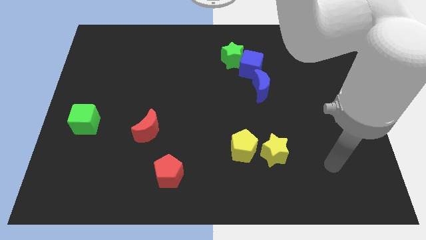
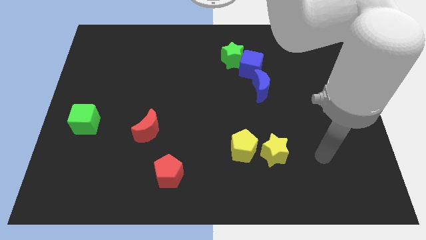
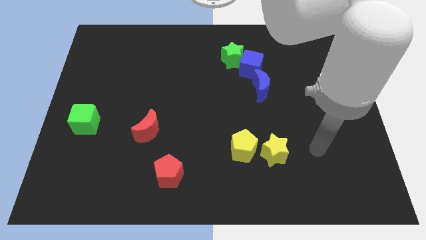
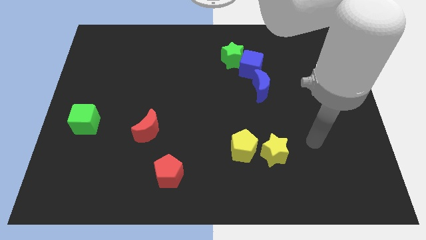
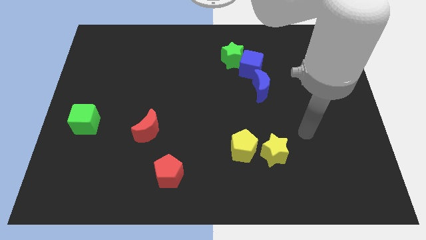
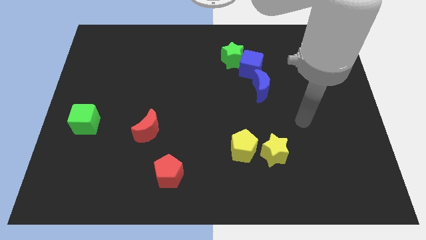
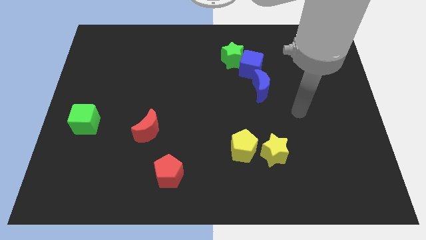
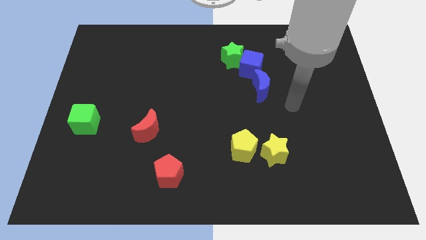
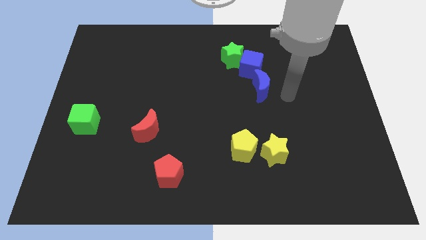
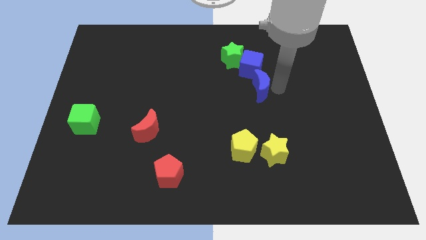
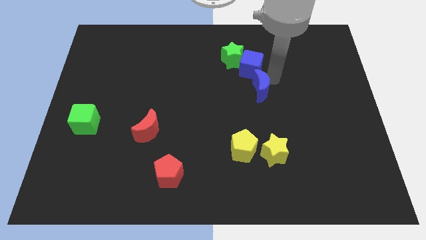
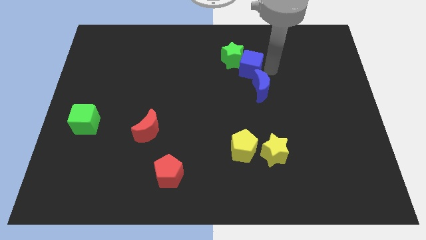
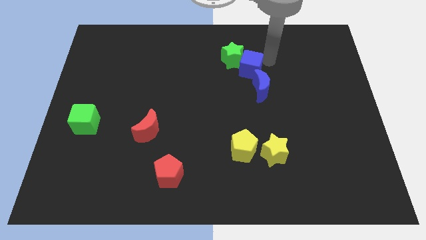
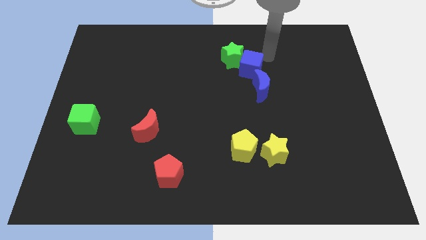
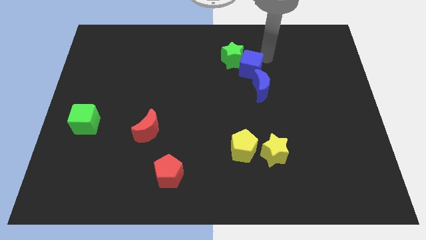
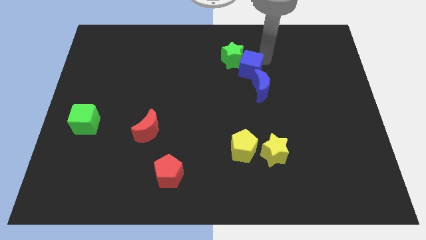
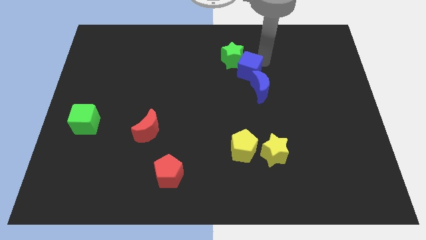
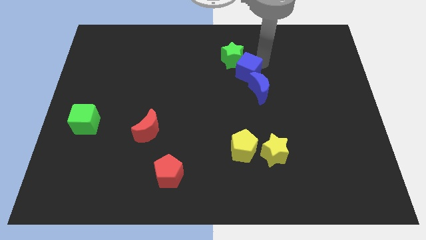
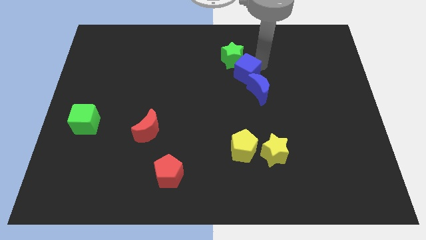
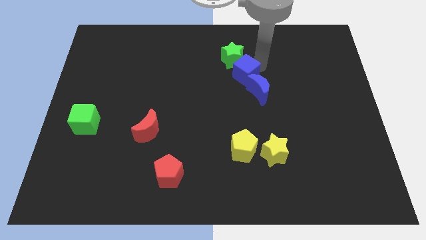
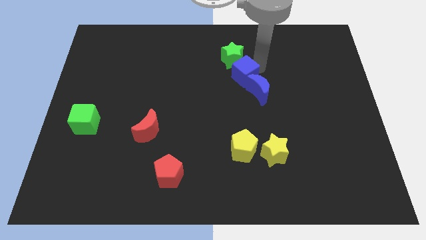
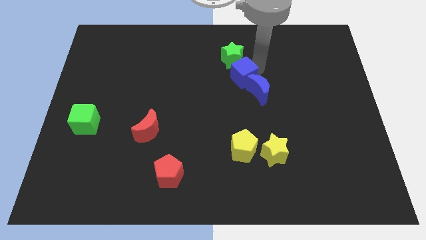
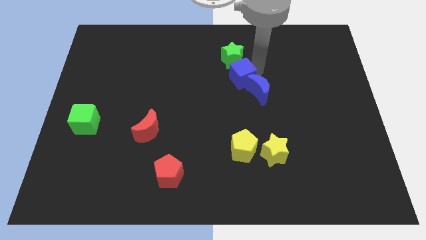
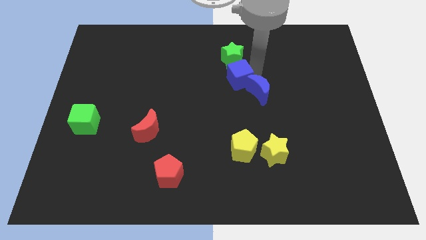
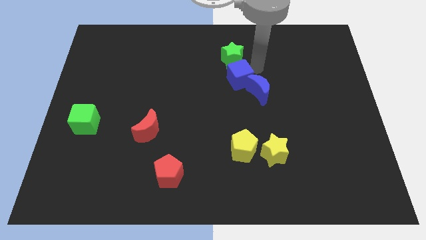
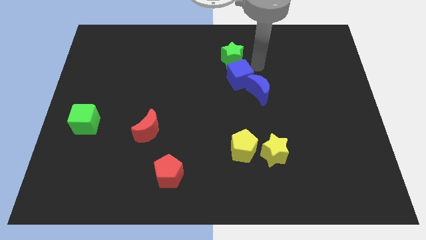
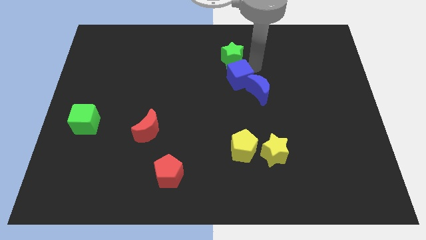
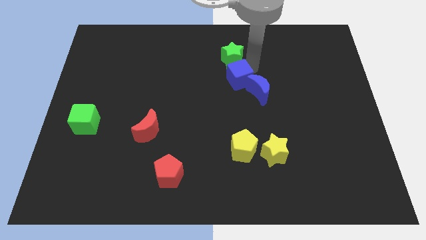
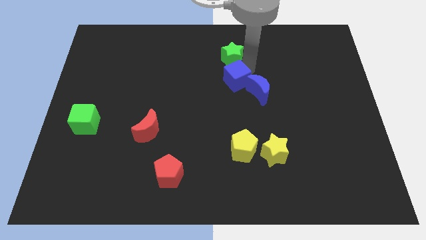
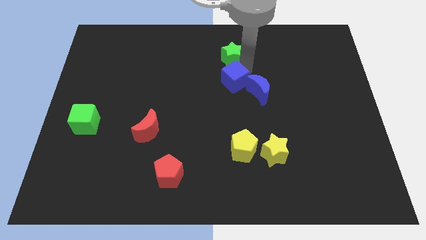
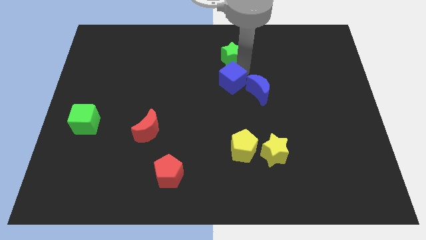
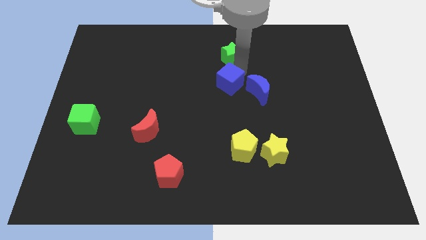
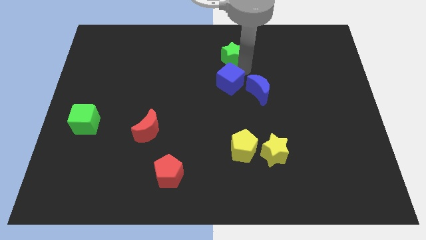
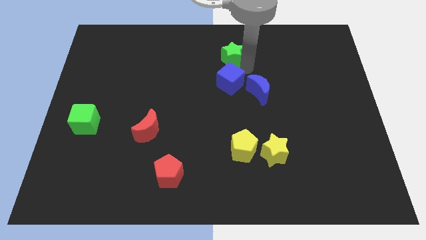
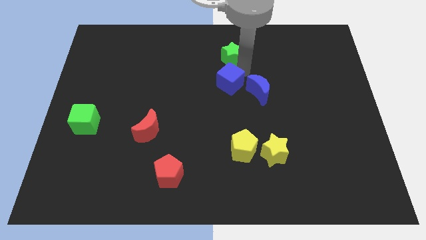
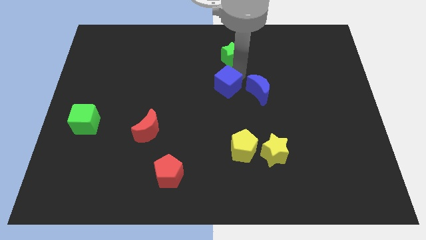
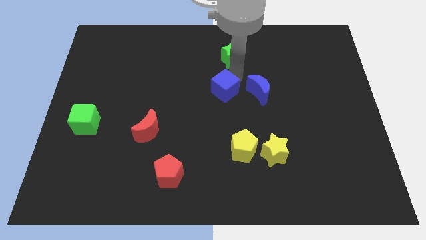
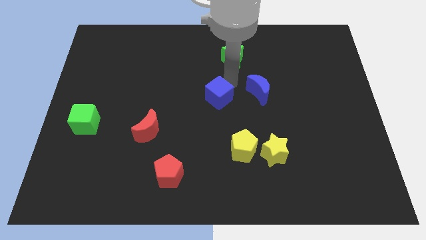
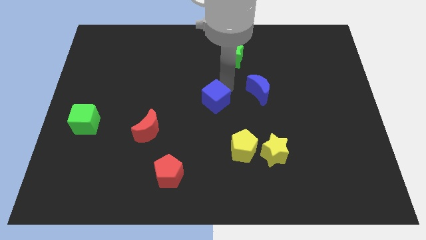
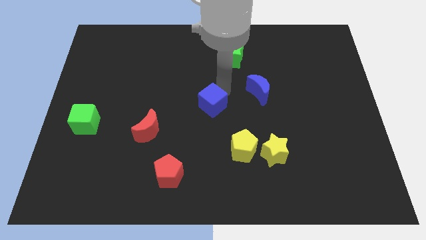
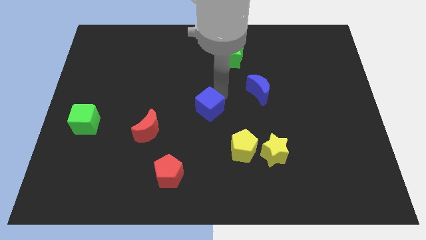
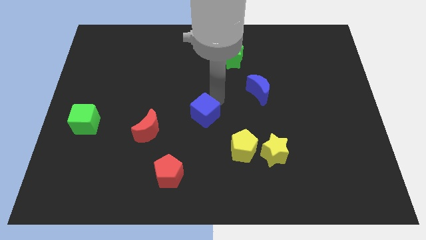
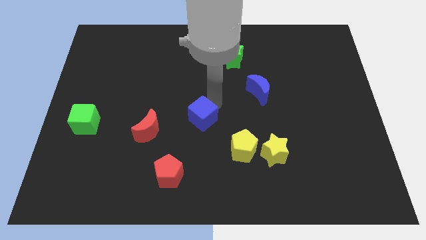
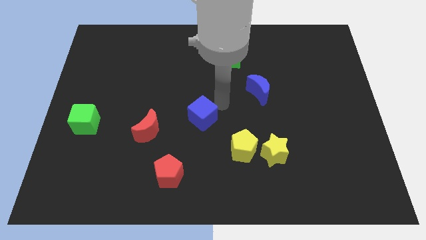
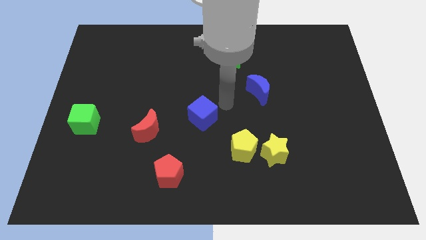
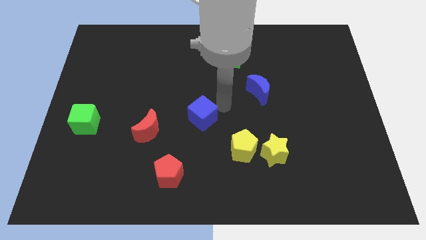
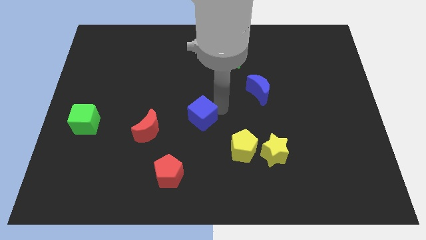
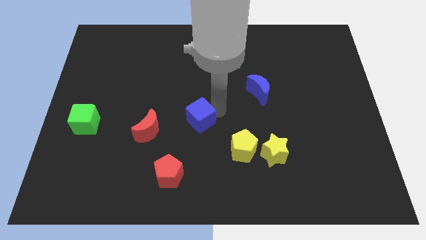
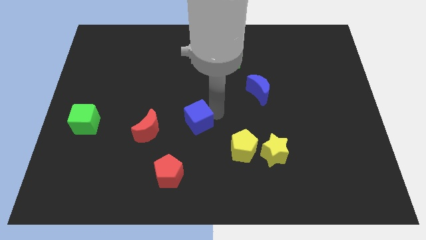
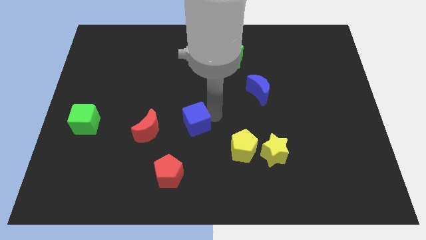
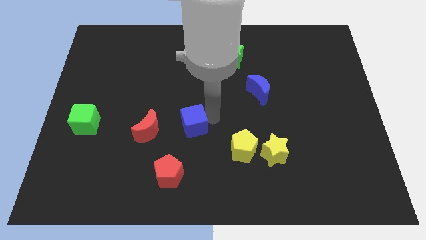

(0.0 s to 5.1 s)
move the blue cube to the top side of the red pentagon

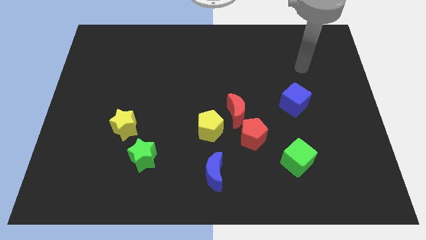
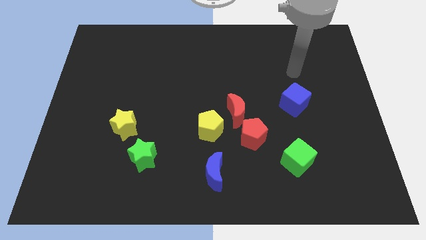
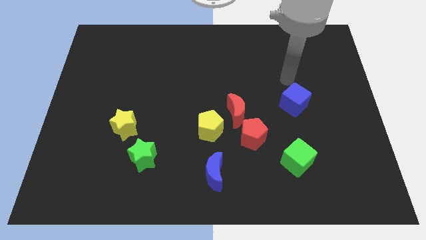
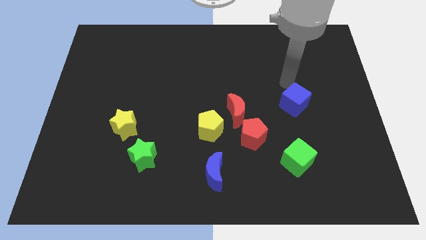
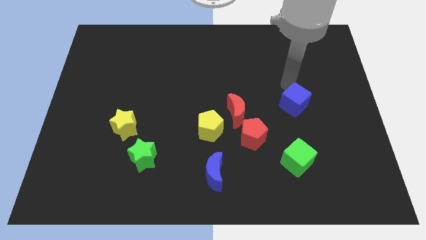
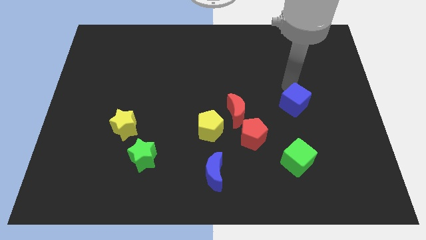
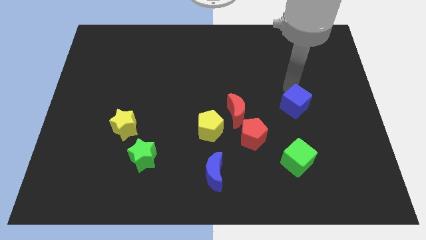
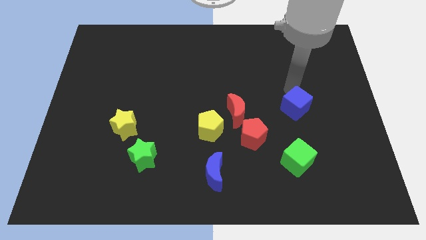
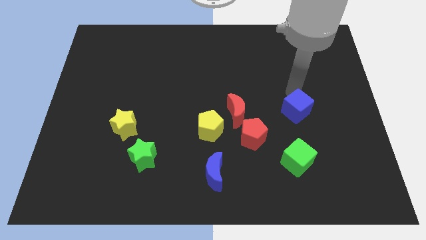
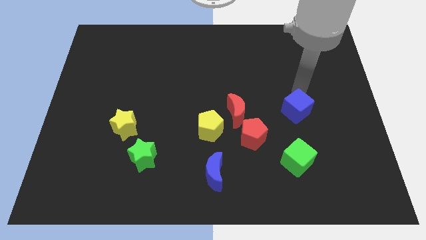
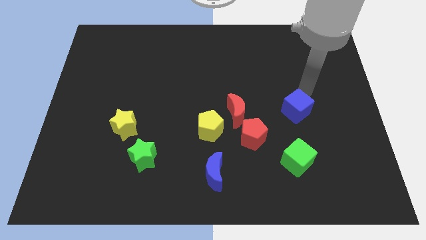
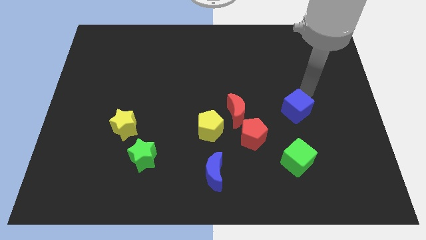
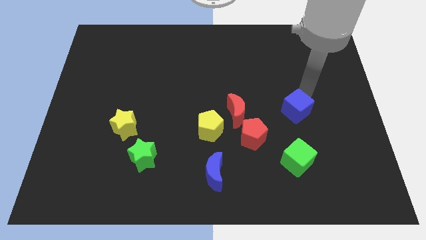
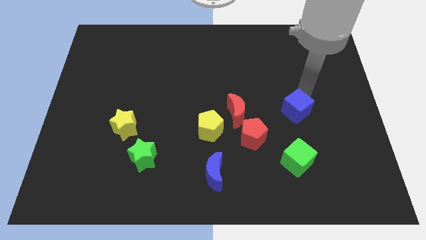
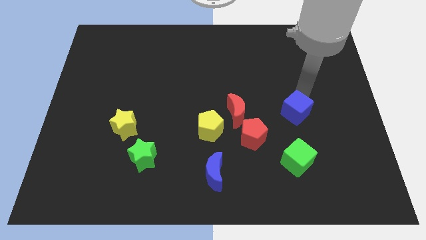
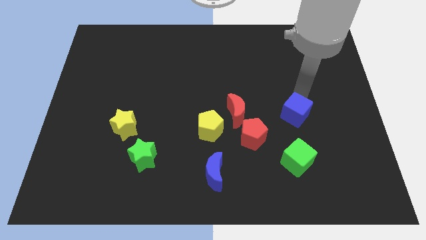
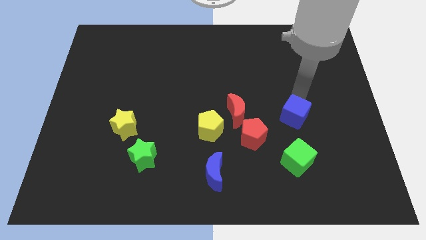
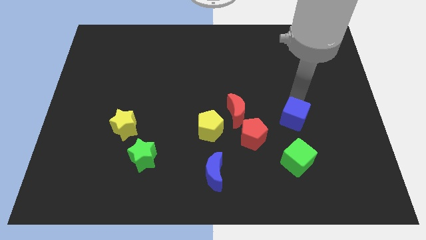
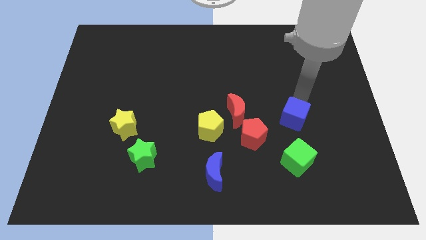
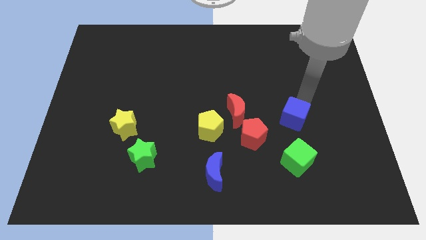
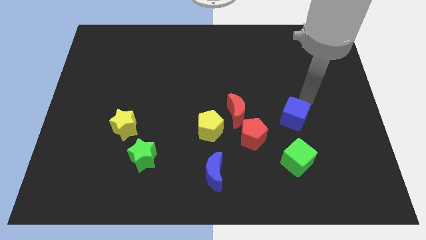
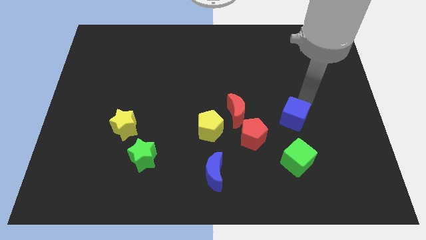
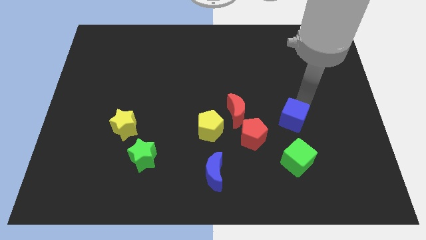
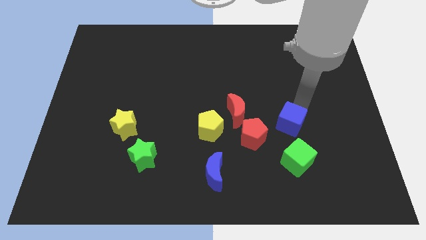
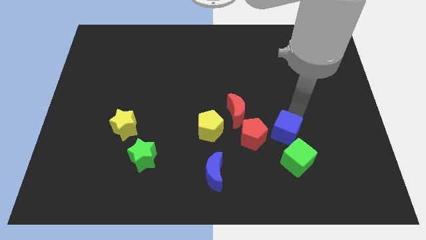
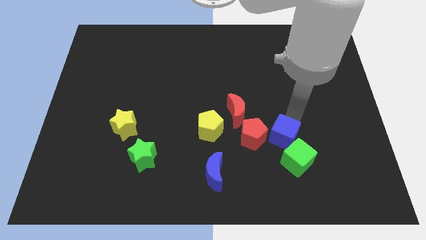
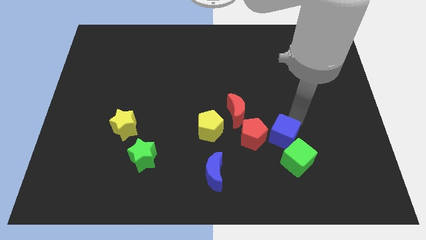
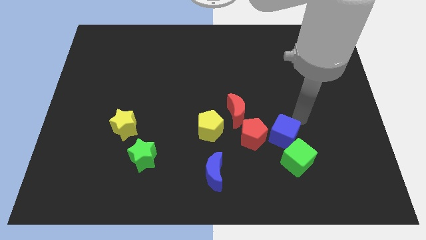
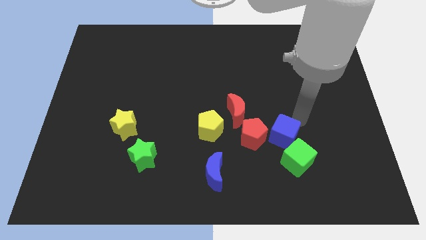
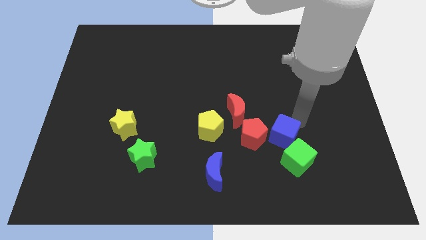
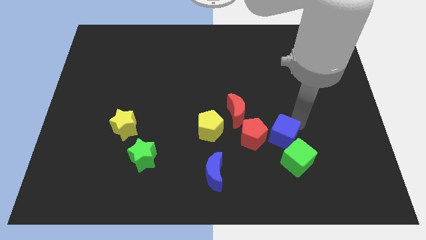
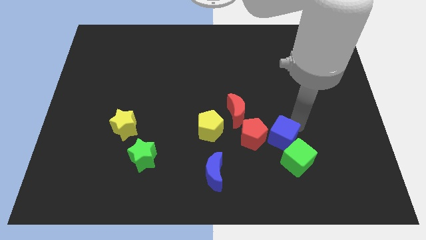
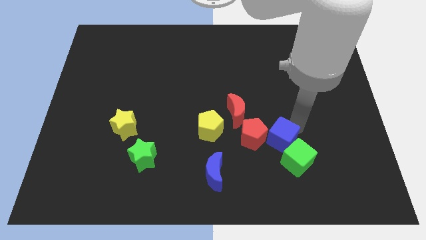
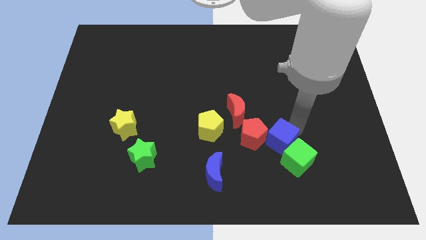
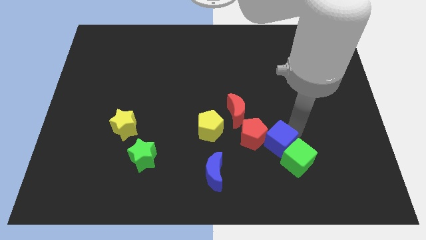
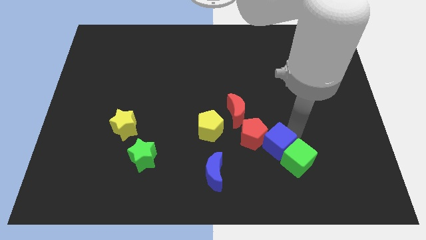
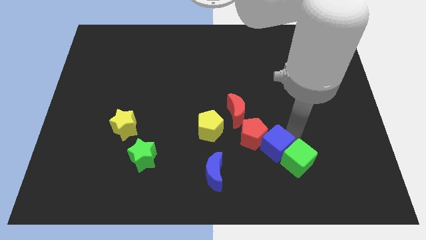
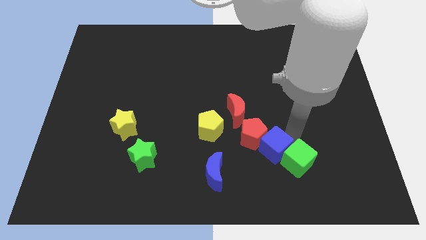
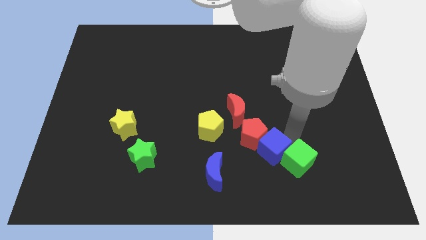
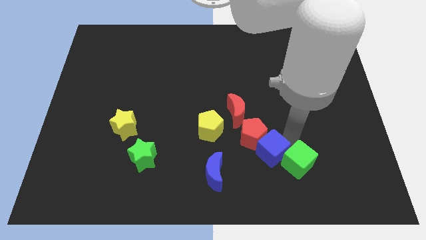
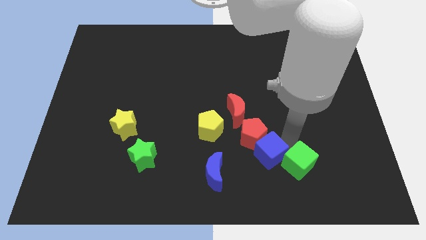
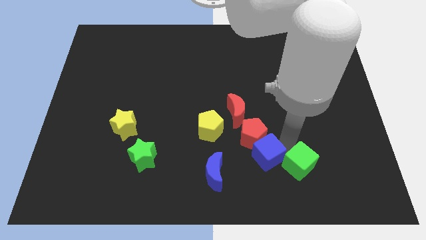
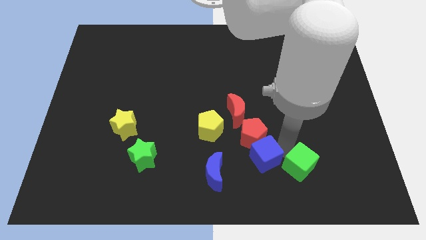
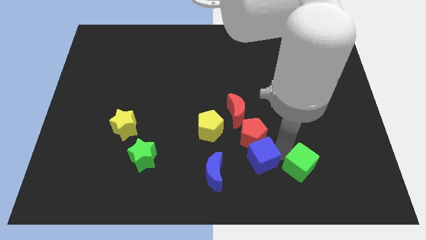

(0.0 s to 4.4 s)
put the blue cube to the bottom side of the red moon
